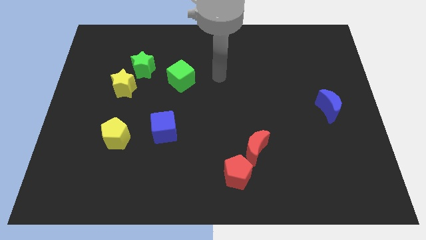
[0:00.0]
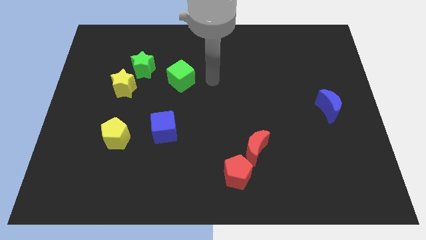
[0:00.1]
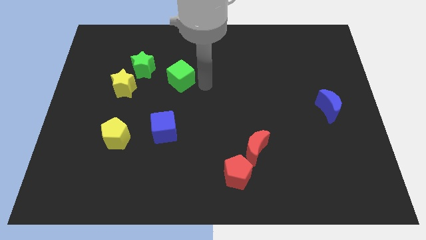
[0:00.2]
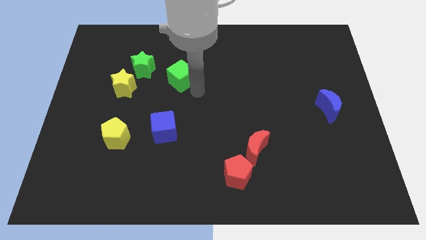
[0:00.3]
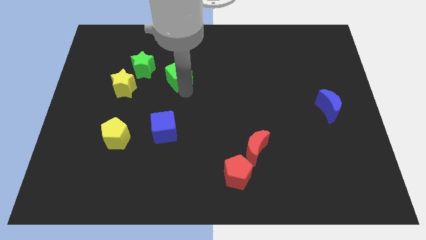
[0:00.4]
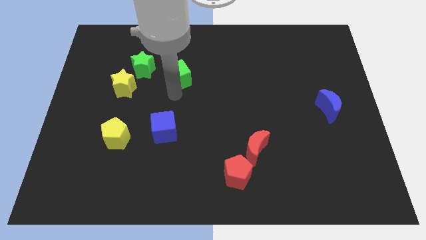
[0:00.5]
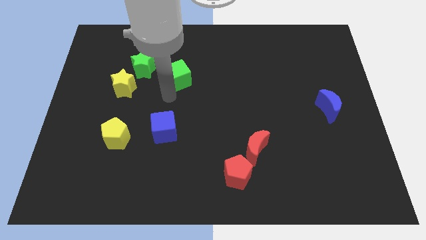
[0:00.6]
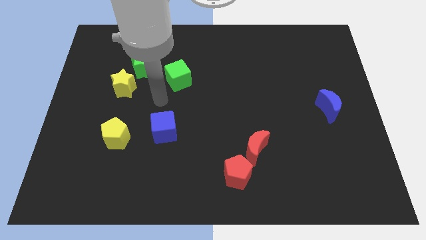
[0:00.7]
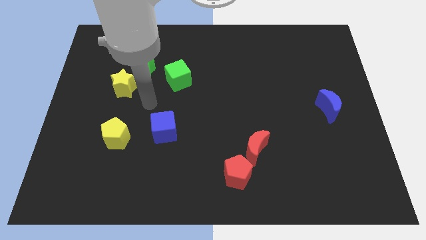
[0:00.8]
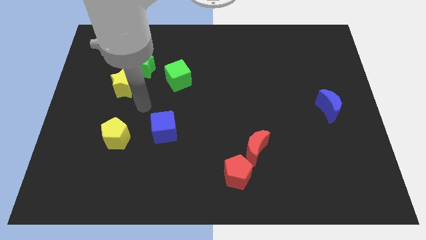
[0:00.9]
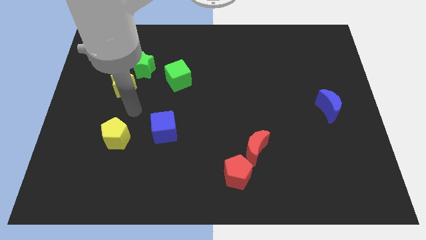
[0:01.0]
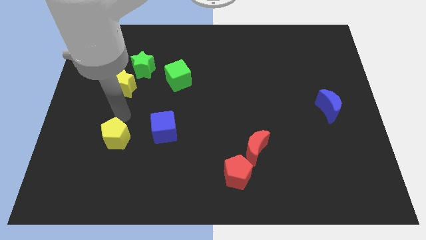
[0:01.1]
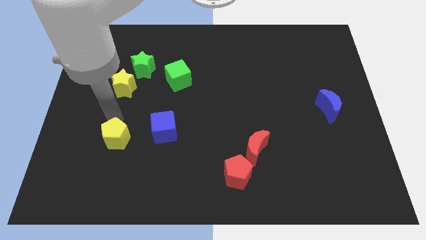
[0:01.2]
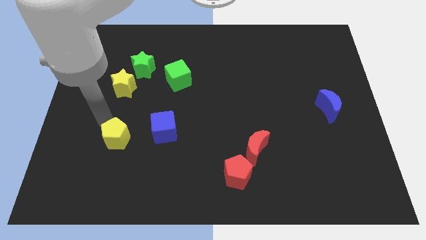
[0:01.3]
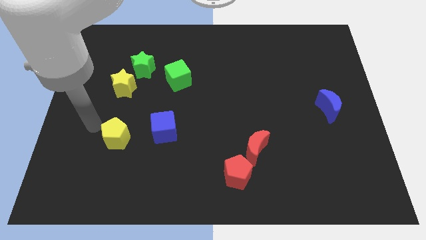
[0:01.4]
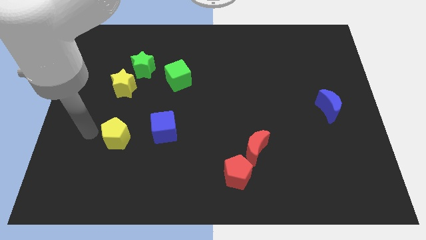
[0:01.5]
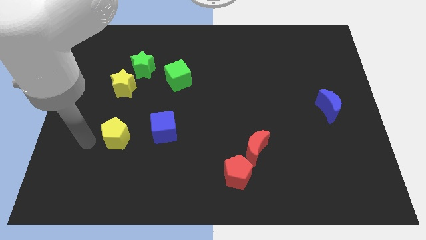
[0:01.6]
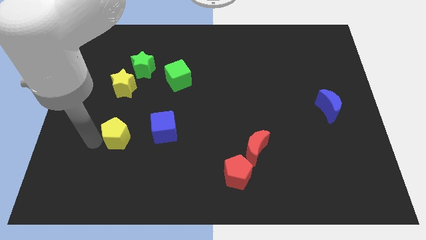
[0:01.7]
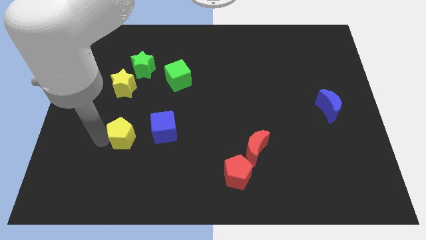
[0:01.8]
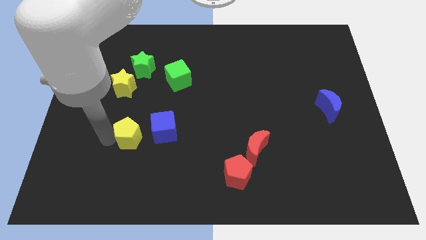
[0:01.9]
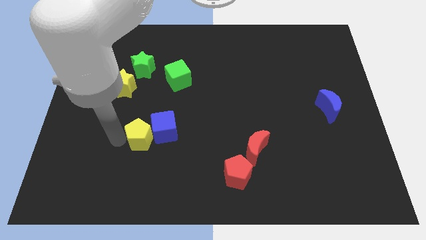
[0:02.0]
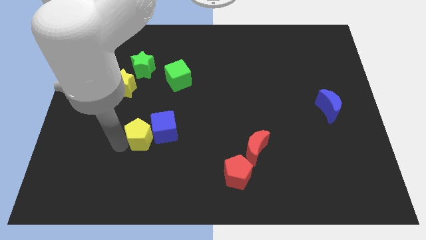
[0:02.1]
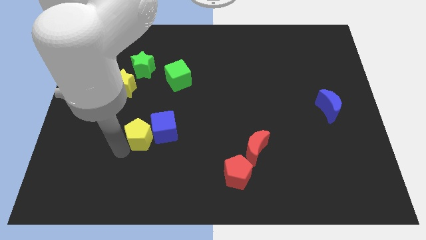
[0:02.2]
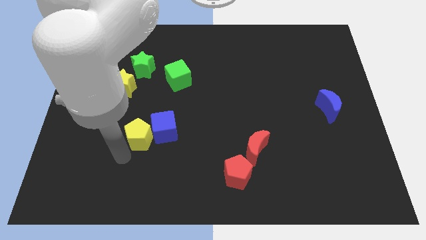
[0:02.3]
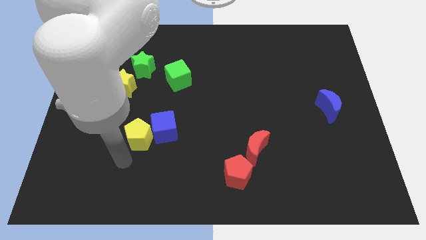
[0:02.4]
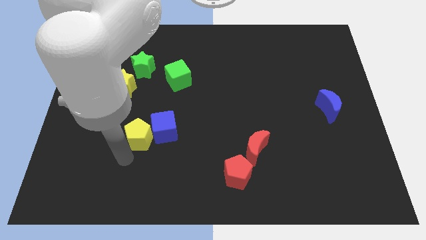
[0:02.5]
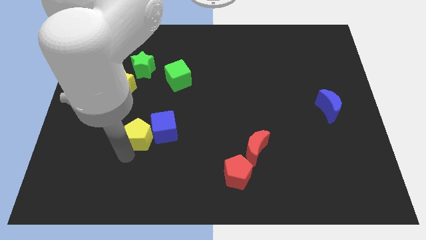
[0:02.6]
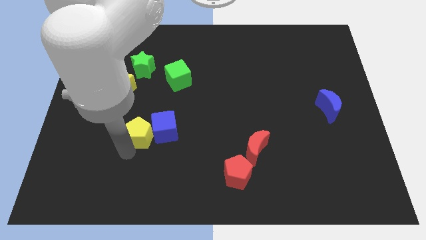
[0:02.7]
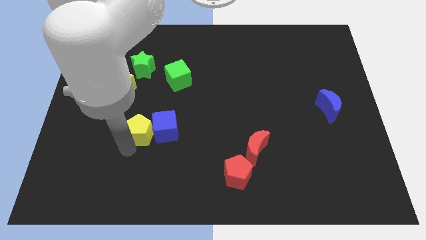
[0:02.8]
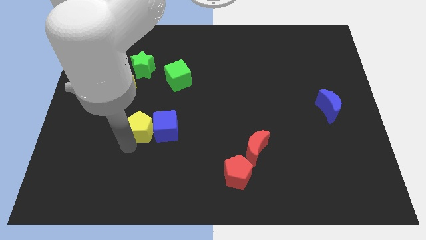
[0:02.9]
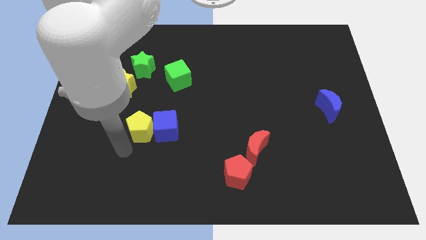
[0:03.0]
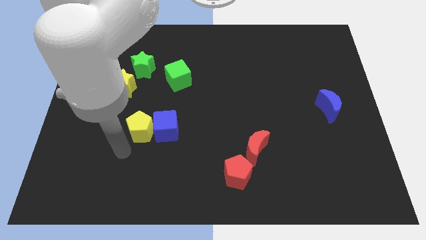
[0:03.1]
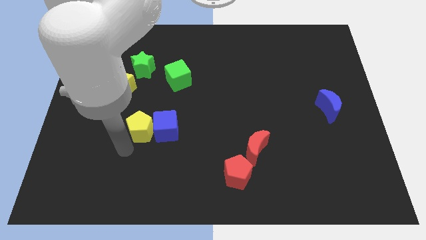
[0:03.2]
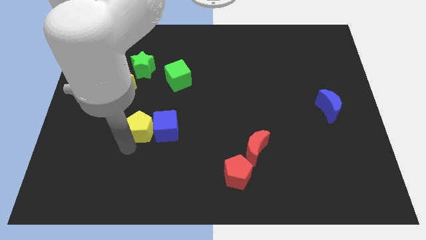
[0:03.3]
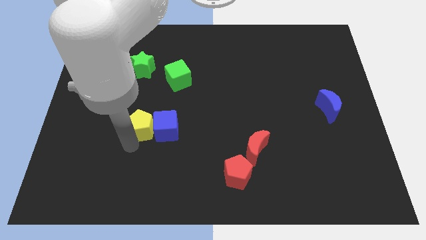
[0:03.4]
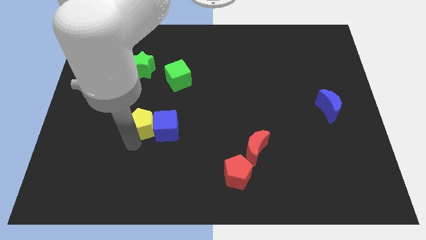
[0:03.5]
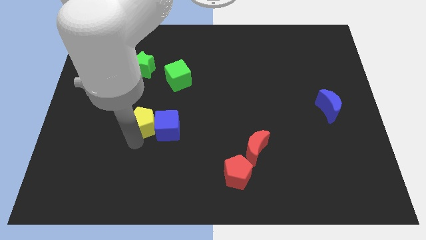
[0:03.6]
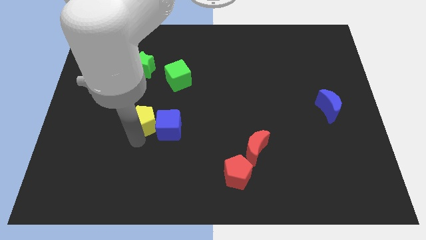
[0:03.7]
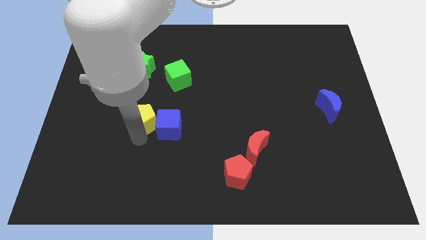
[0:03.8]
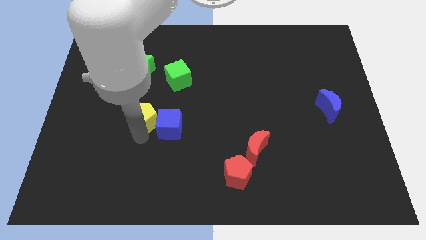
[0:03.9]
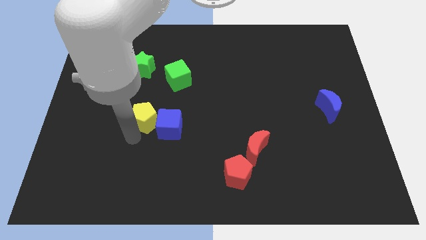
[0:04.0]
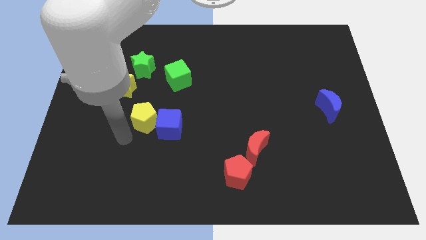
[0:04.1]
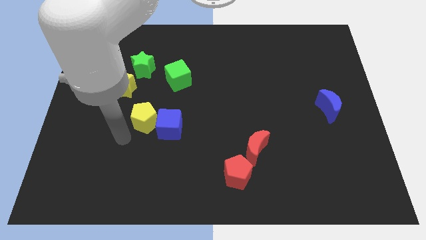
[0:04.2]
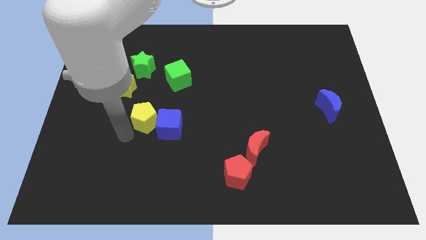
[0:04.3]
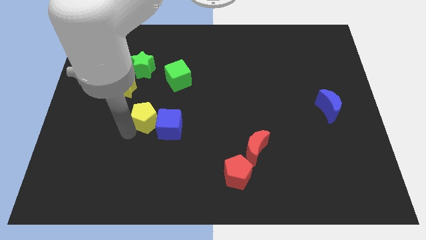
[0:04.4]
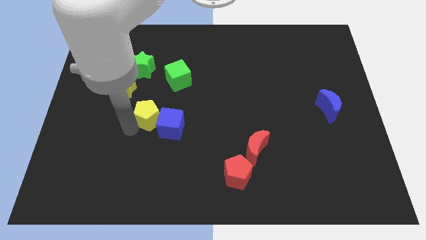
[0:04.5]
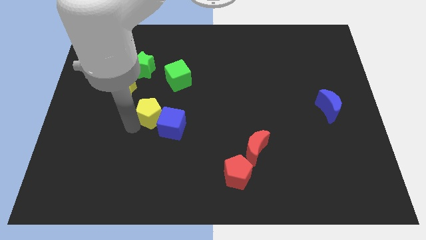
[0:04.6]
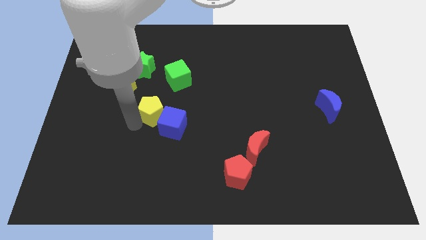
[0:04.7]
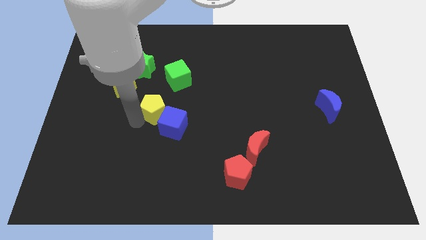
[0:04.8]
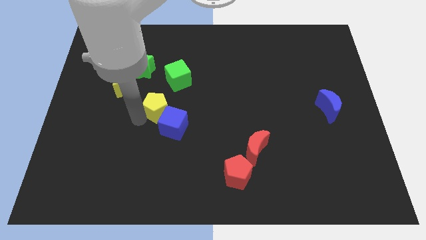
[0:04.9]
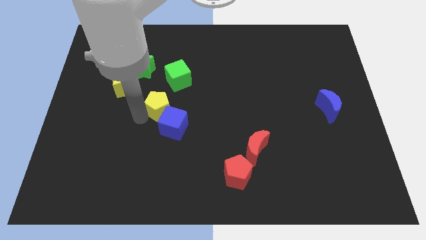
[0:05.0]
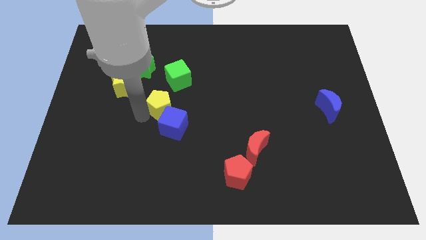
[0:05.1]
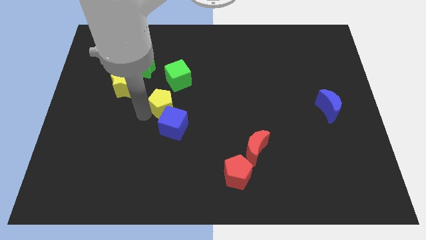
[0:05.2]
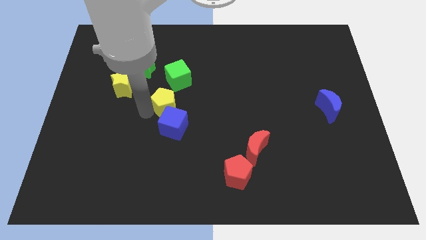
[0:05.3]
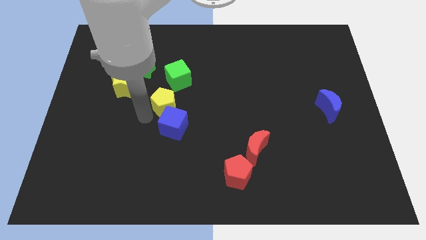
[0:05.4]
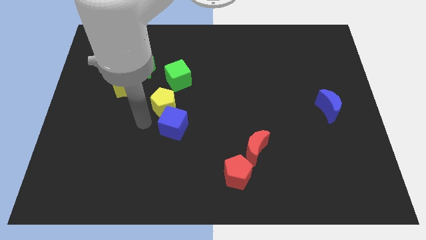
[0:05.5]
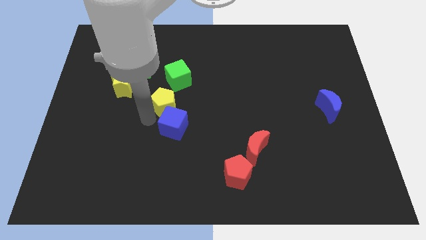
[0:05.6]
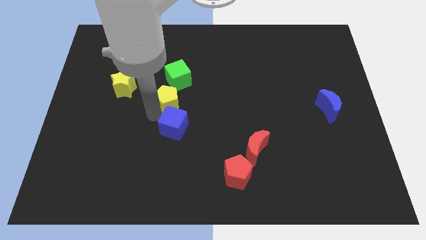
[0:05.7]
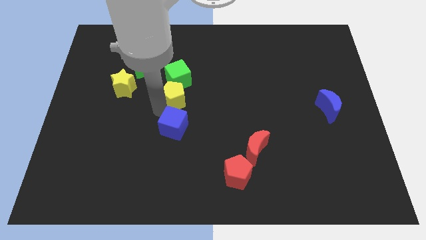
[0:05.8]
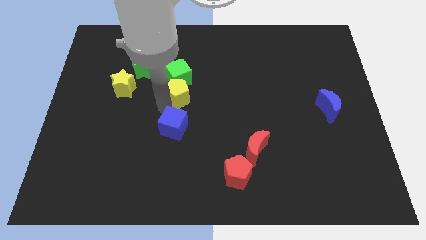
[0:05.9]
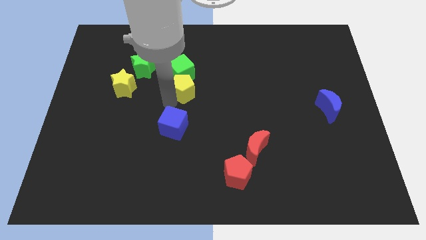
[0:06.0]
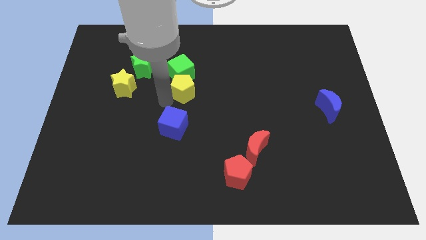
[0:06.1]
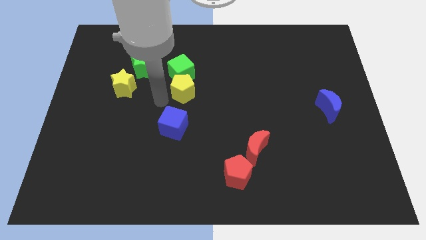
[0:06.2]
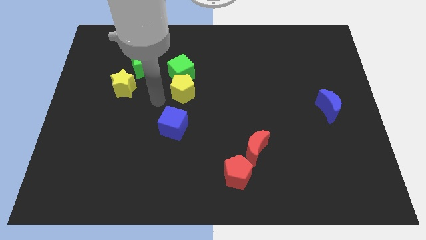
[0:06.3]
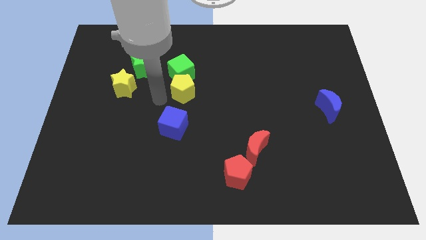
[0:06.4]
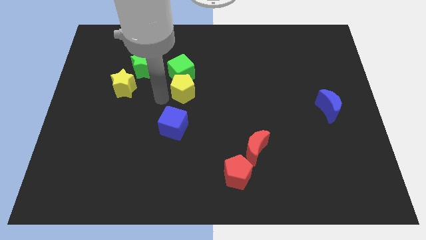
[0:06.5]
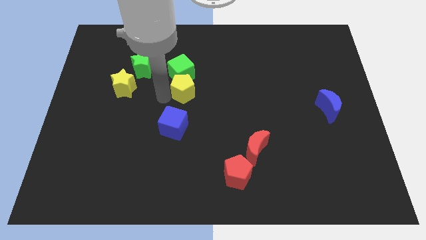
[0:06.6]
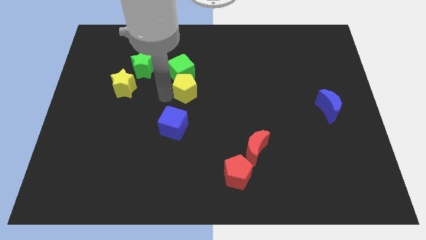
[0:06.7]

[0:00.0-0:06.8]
push the yellow pentagon diagonally upwards and right

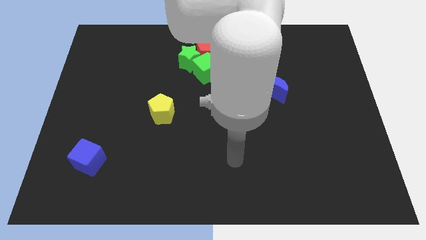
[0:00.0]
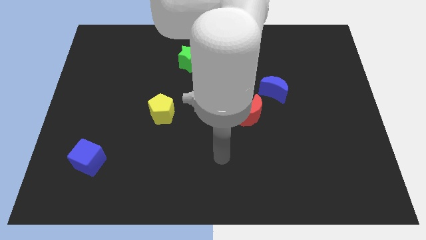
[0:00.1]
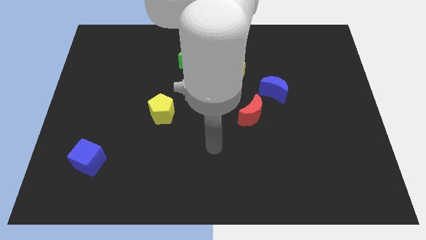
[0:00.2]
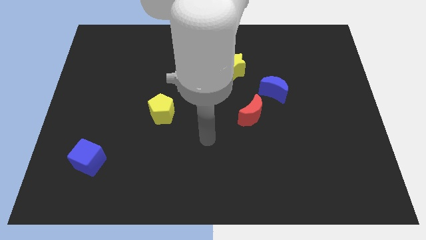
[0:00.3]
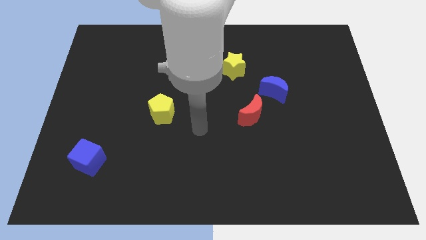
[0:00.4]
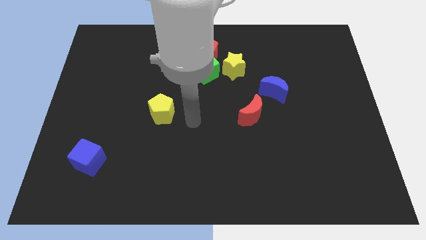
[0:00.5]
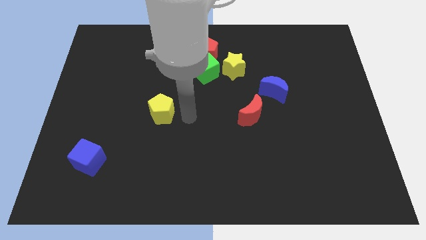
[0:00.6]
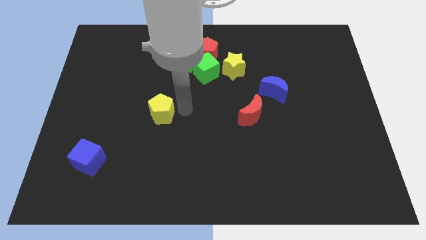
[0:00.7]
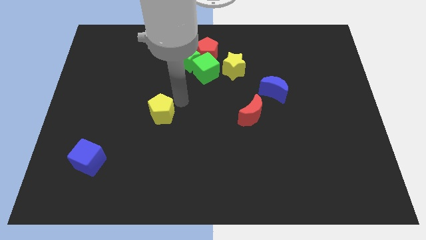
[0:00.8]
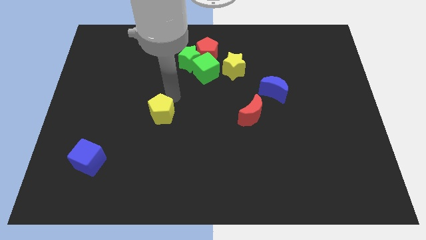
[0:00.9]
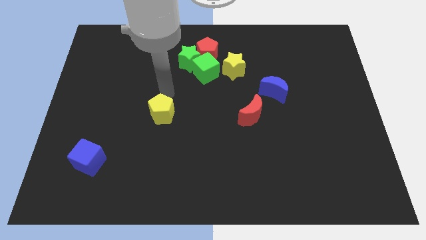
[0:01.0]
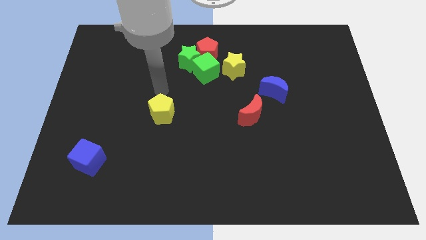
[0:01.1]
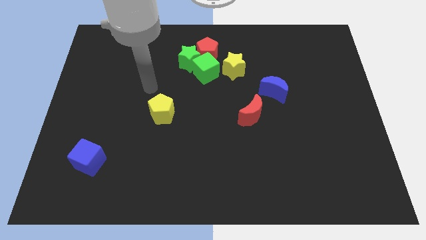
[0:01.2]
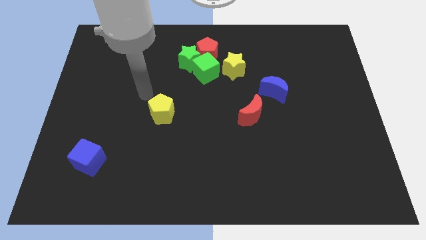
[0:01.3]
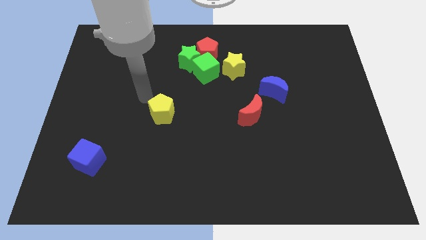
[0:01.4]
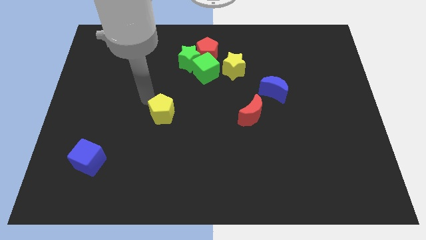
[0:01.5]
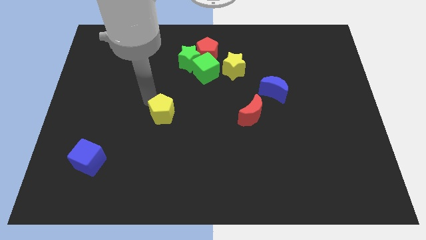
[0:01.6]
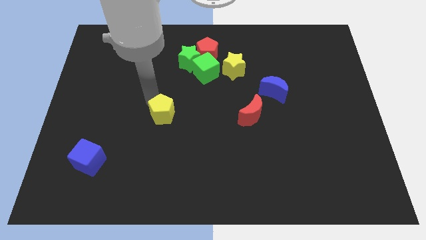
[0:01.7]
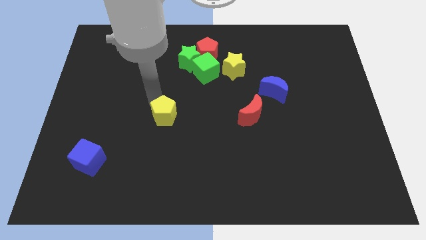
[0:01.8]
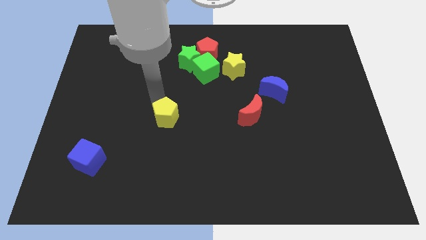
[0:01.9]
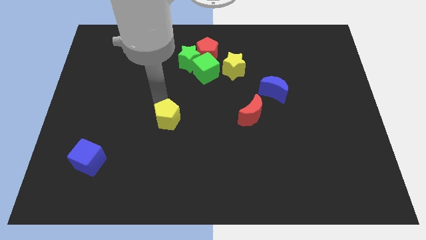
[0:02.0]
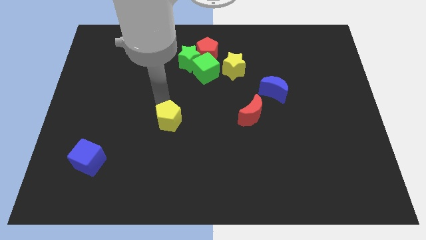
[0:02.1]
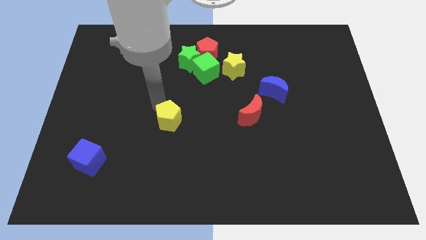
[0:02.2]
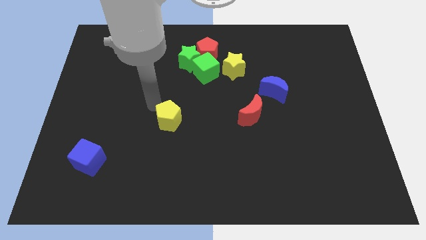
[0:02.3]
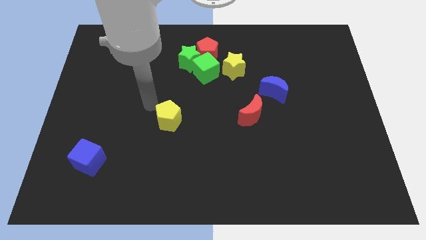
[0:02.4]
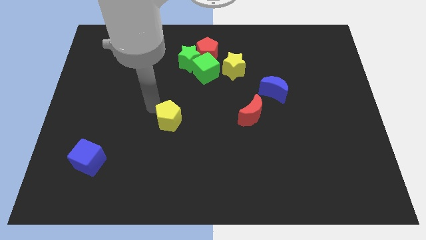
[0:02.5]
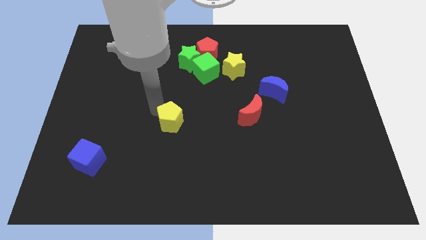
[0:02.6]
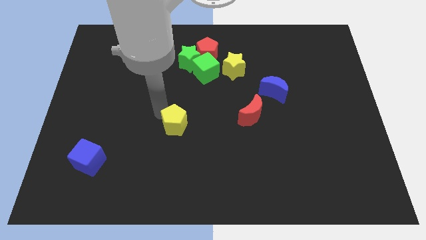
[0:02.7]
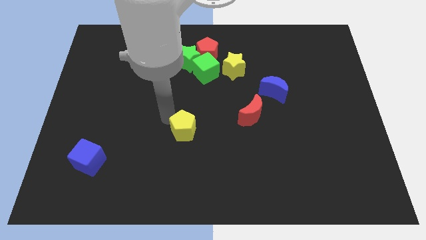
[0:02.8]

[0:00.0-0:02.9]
slide the yellow pentagon down and then right a little
